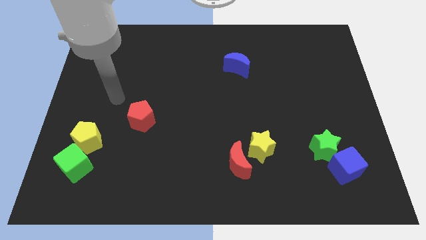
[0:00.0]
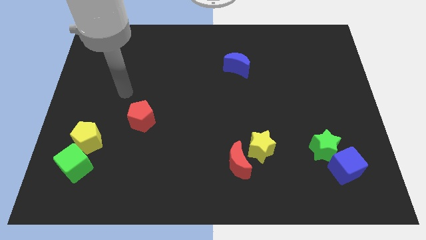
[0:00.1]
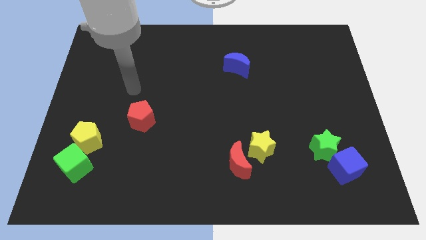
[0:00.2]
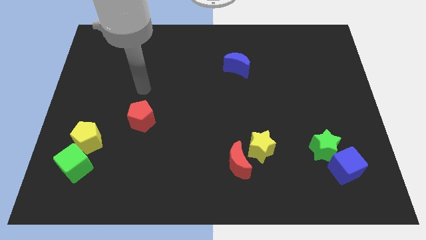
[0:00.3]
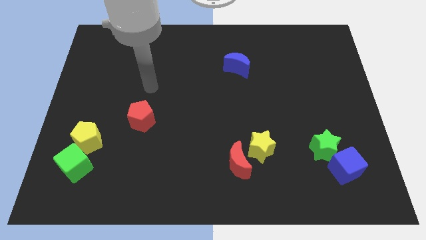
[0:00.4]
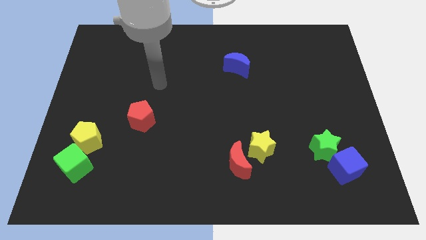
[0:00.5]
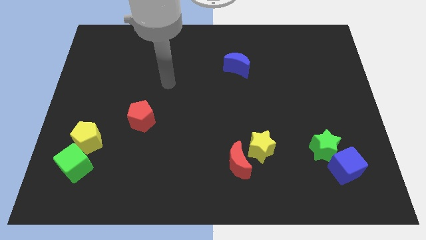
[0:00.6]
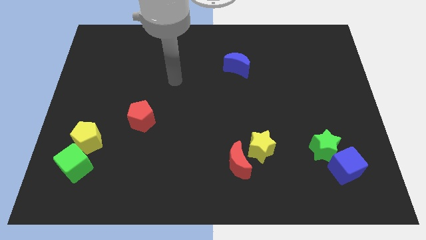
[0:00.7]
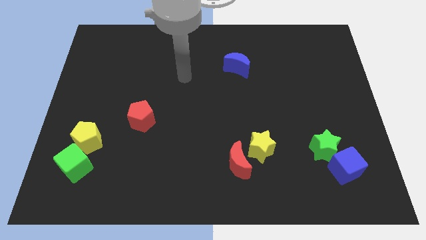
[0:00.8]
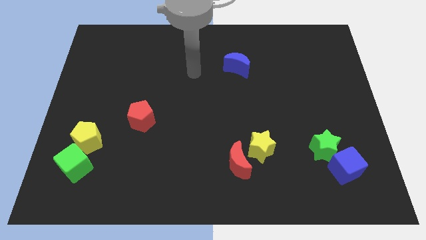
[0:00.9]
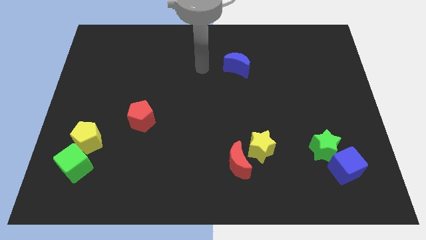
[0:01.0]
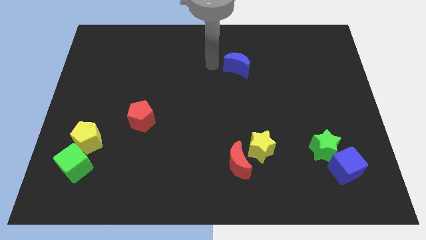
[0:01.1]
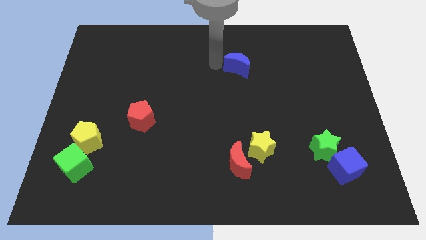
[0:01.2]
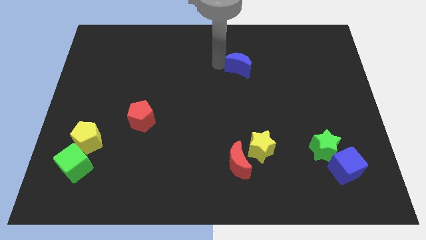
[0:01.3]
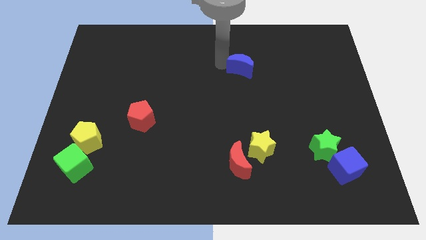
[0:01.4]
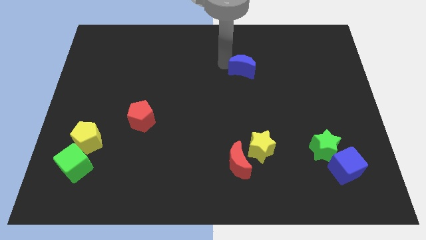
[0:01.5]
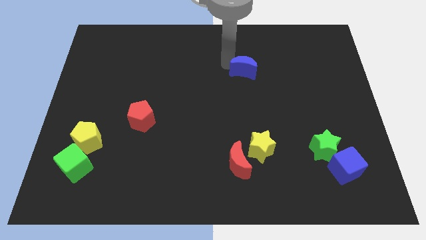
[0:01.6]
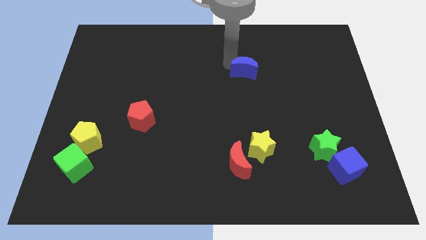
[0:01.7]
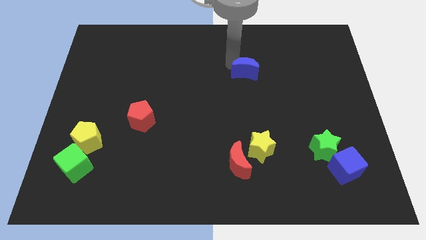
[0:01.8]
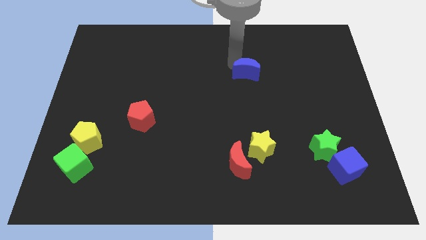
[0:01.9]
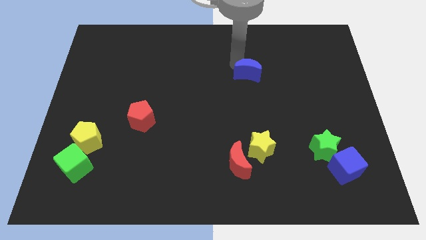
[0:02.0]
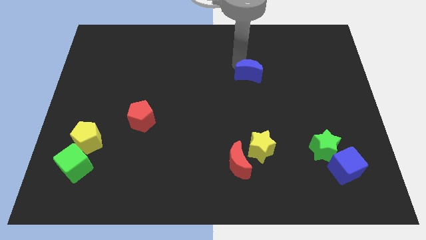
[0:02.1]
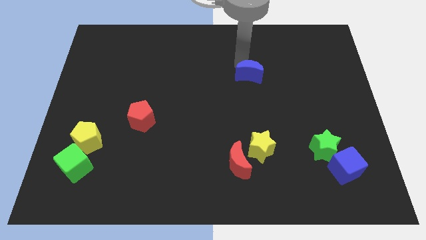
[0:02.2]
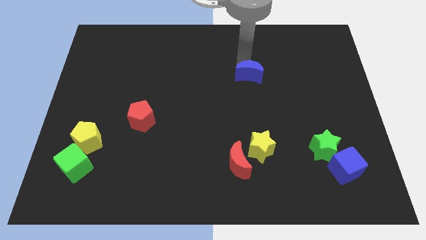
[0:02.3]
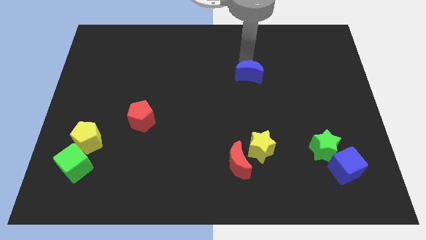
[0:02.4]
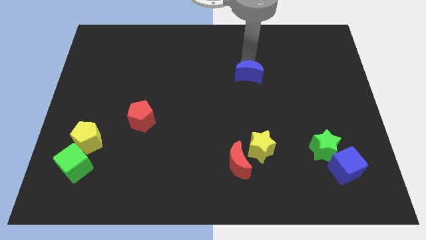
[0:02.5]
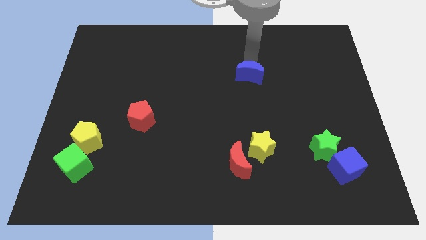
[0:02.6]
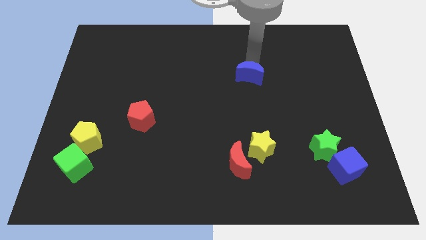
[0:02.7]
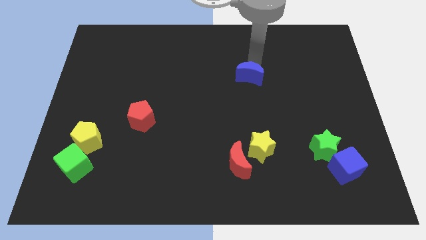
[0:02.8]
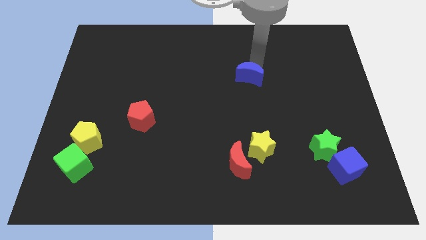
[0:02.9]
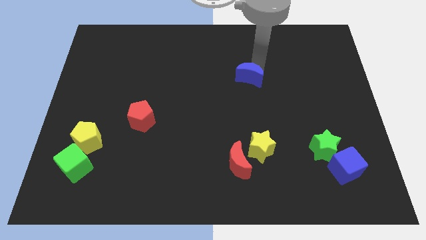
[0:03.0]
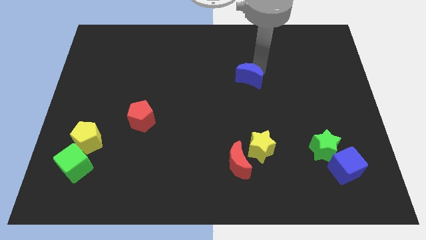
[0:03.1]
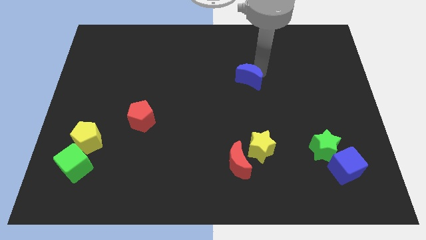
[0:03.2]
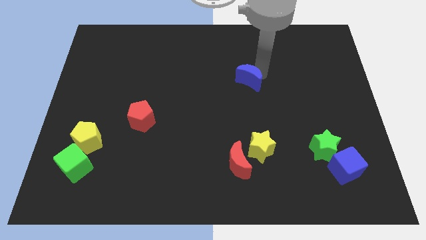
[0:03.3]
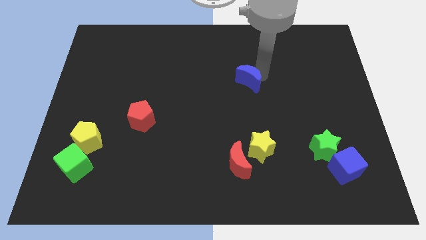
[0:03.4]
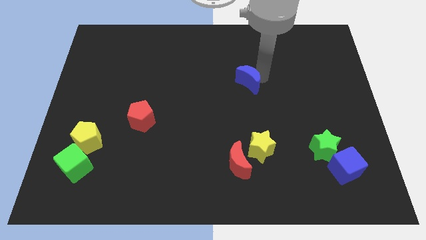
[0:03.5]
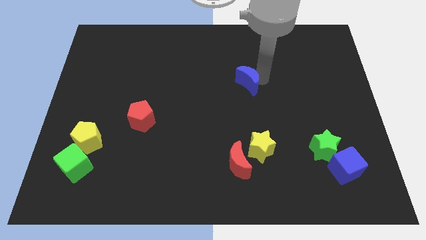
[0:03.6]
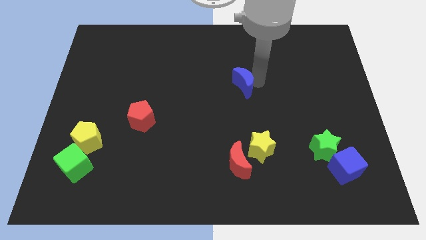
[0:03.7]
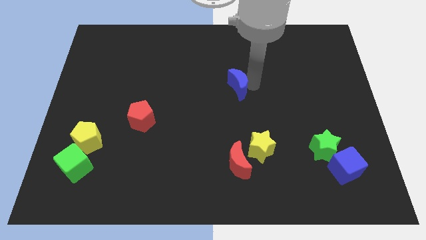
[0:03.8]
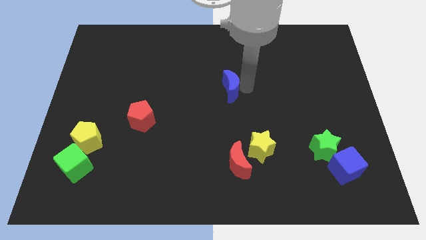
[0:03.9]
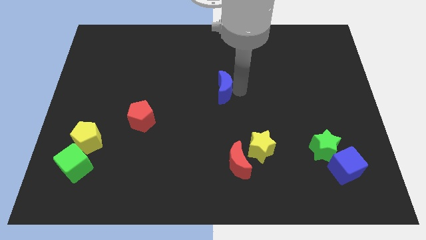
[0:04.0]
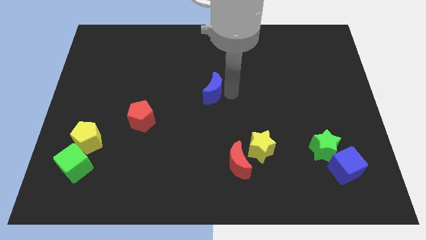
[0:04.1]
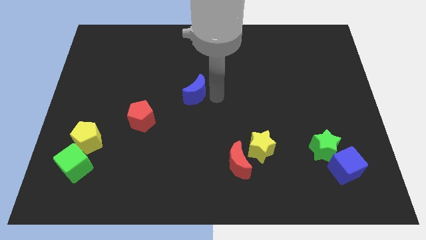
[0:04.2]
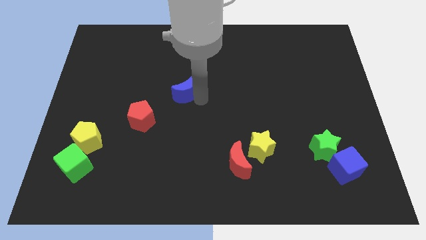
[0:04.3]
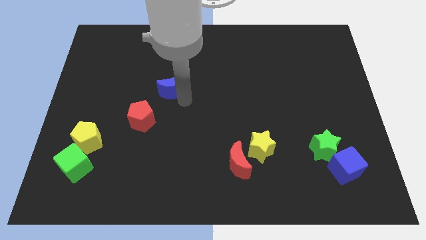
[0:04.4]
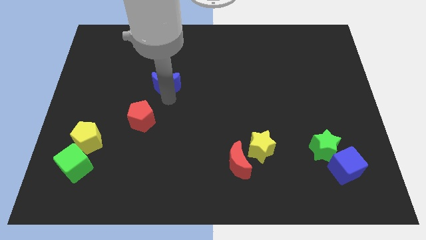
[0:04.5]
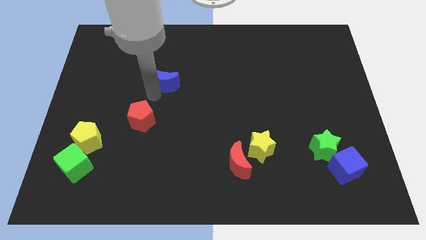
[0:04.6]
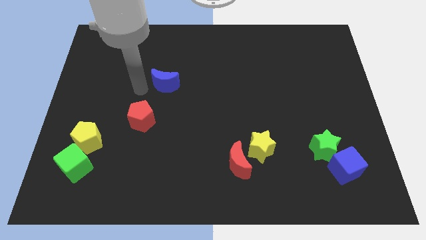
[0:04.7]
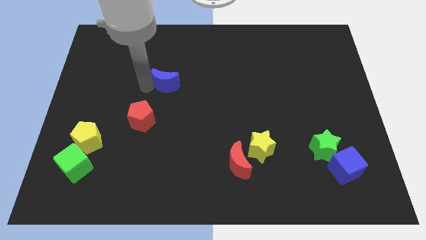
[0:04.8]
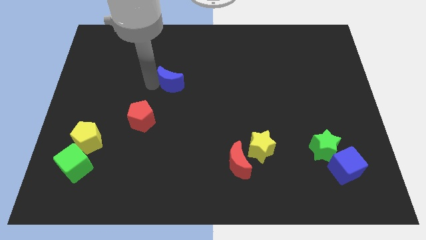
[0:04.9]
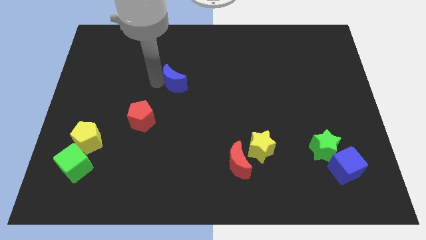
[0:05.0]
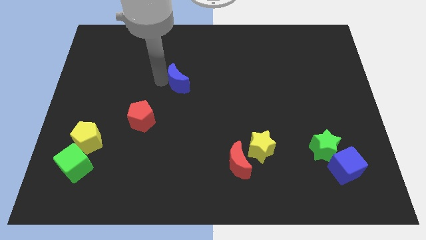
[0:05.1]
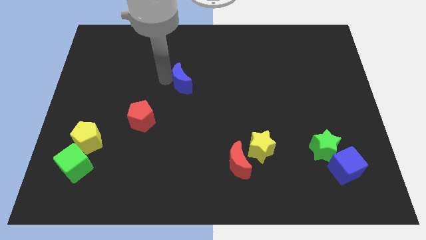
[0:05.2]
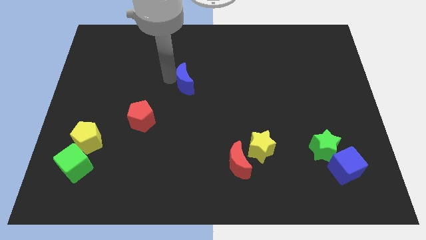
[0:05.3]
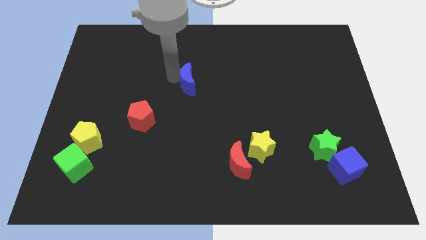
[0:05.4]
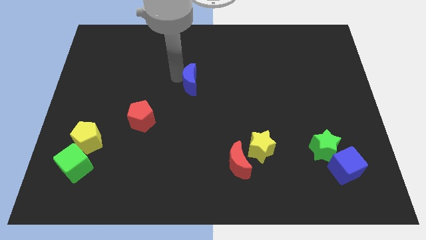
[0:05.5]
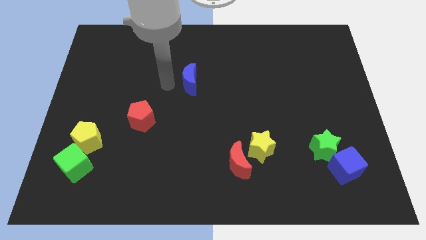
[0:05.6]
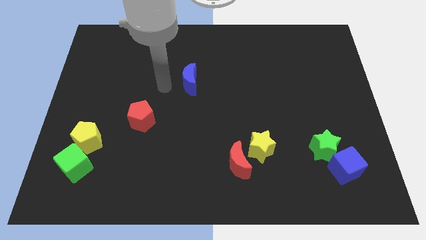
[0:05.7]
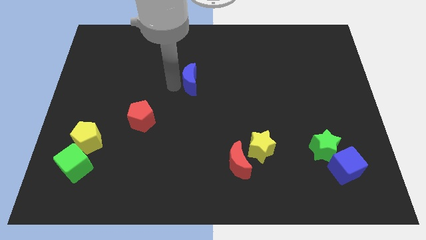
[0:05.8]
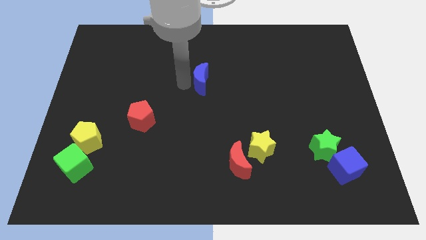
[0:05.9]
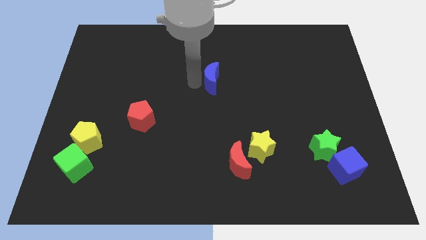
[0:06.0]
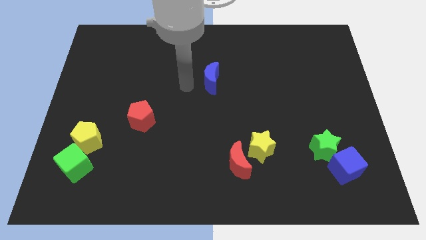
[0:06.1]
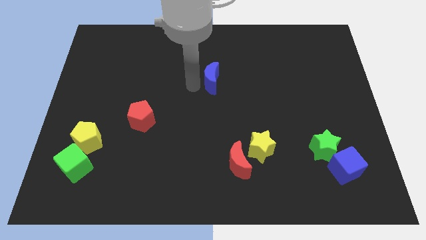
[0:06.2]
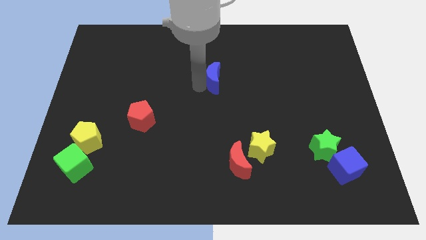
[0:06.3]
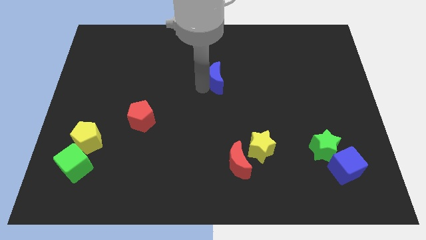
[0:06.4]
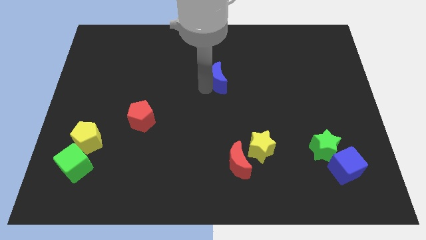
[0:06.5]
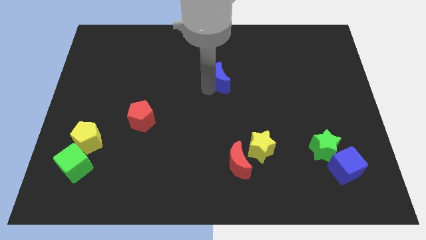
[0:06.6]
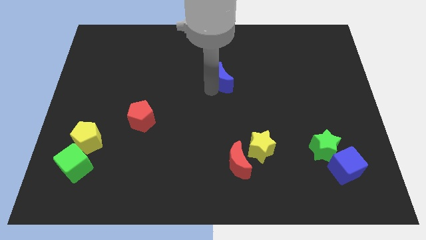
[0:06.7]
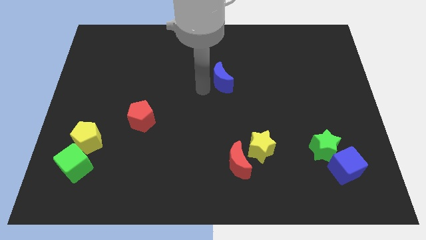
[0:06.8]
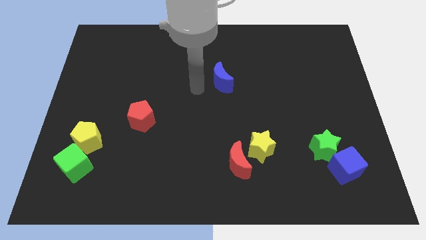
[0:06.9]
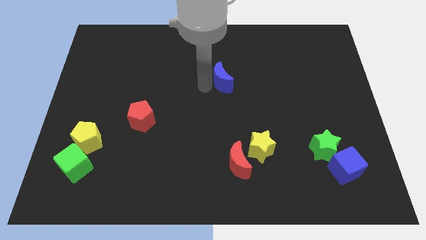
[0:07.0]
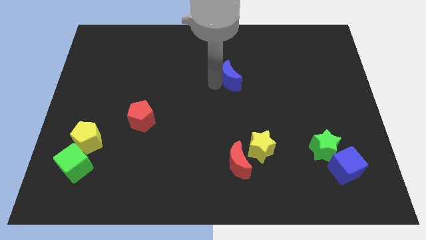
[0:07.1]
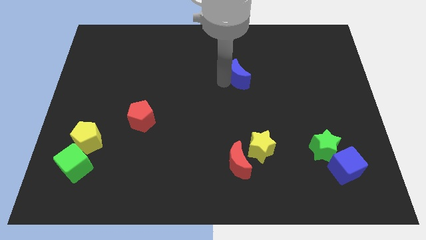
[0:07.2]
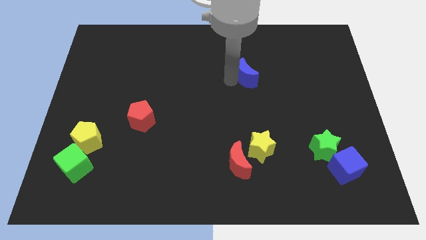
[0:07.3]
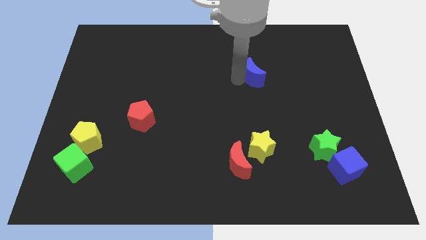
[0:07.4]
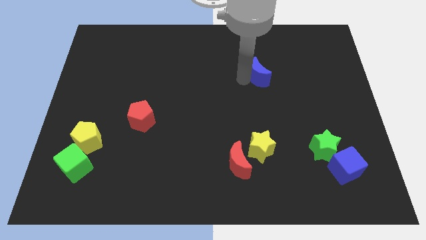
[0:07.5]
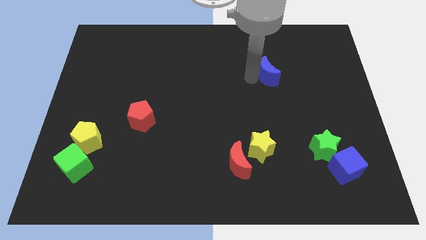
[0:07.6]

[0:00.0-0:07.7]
slightly slide the blue moon to the right

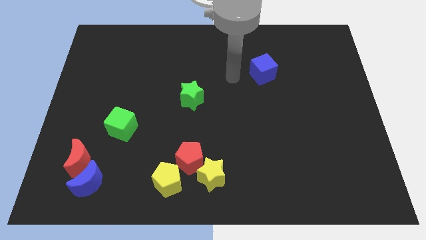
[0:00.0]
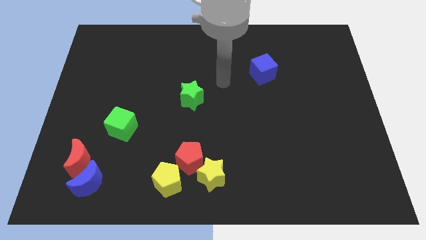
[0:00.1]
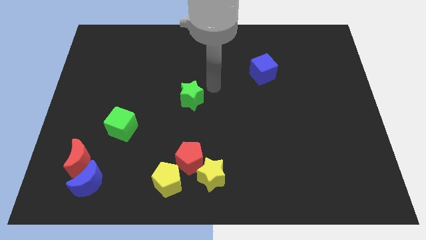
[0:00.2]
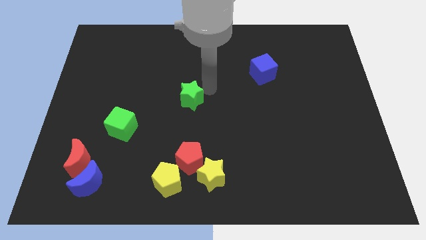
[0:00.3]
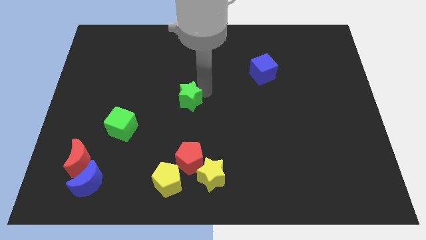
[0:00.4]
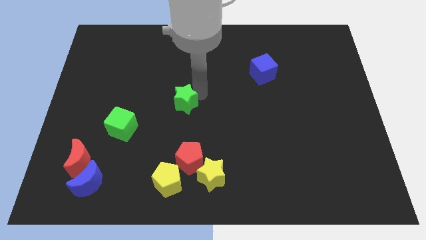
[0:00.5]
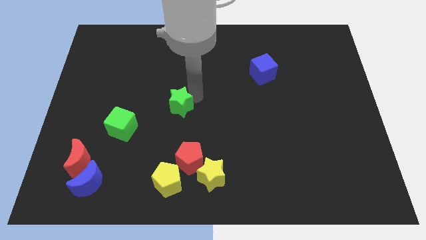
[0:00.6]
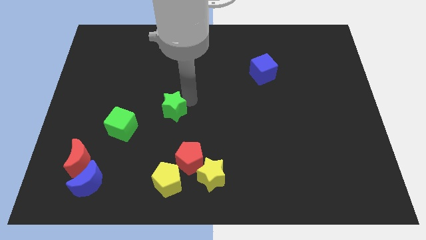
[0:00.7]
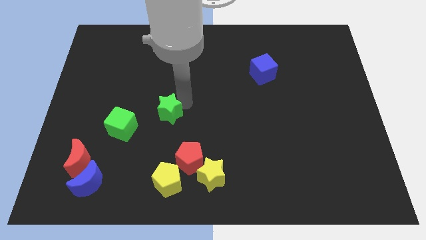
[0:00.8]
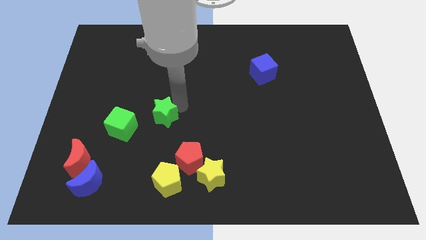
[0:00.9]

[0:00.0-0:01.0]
push the green star downwards and then left a bit
